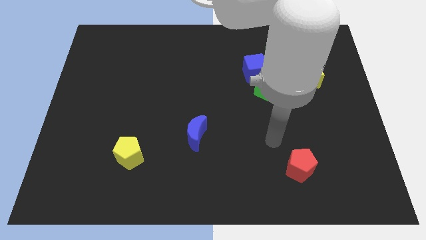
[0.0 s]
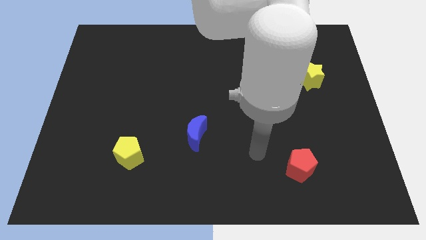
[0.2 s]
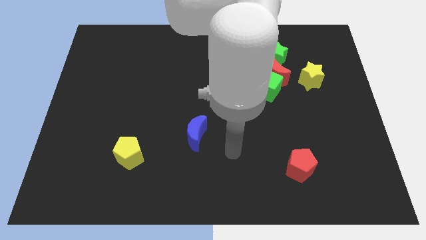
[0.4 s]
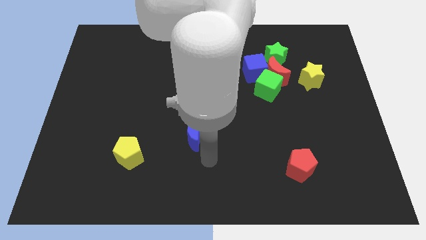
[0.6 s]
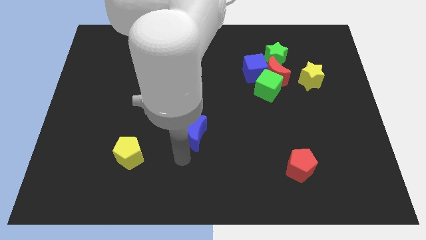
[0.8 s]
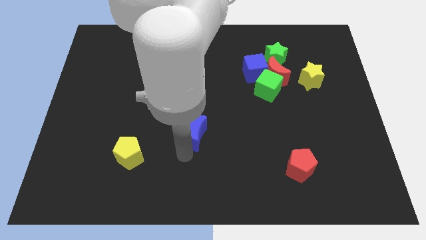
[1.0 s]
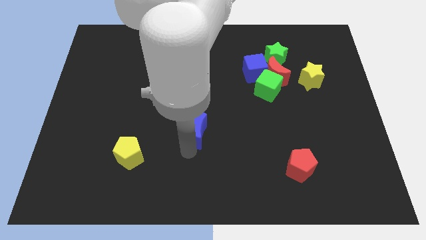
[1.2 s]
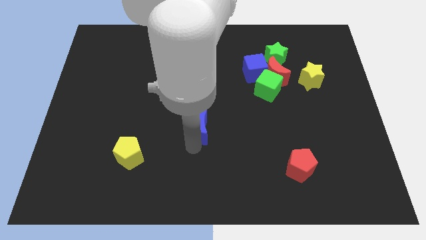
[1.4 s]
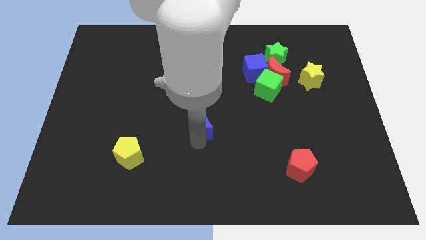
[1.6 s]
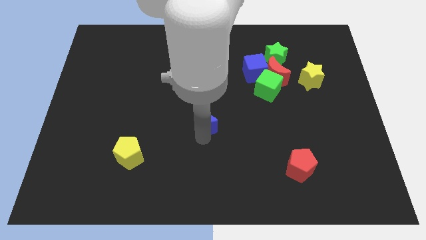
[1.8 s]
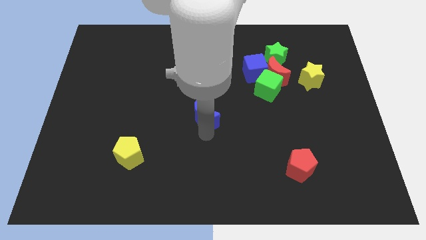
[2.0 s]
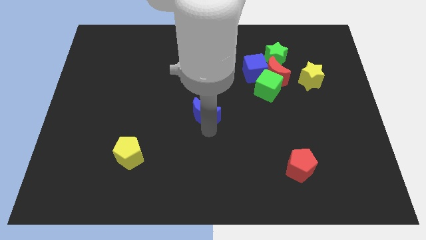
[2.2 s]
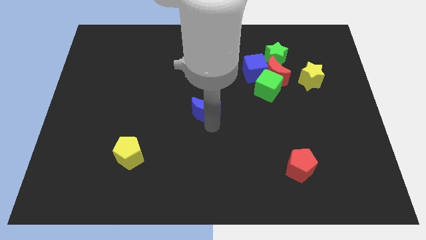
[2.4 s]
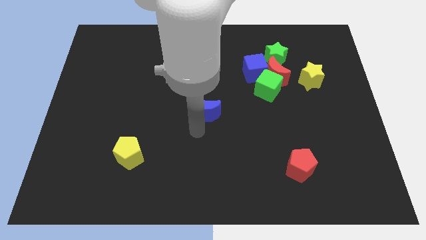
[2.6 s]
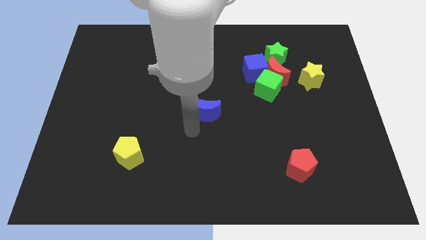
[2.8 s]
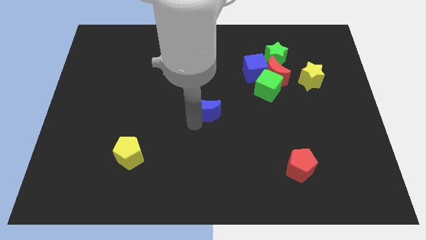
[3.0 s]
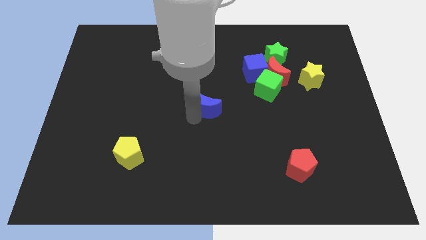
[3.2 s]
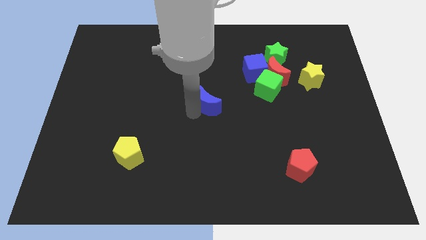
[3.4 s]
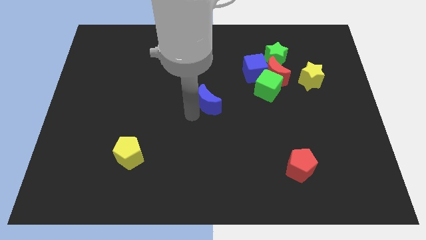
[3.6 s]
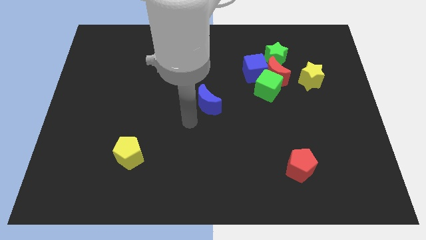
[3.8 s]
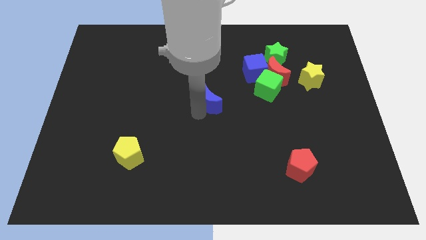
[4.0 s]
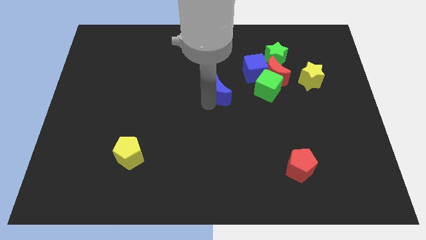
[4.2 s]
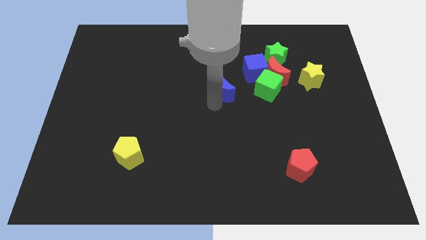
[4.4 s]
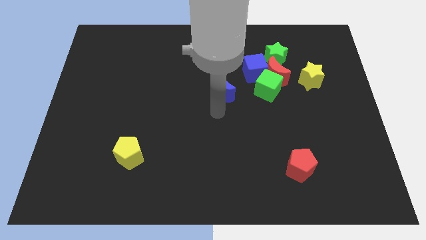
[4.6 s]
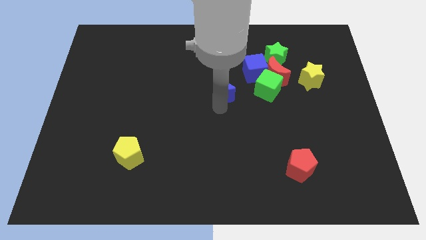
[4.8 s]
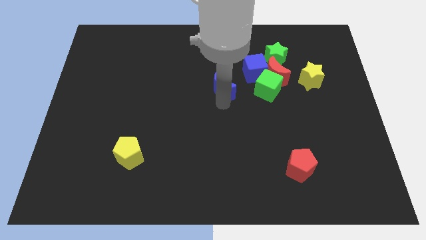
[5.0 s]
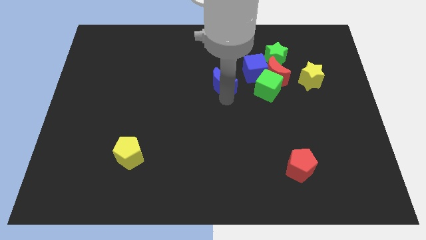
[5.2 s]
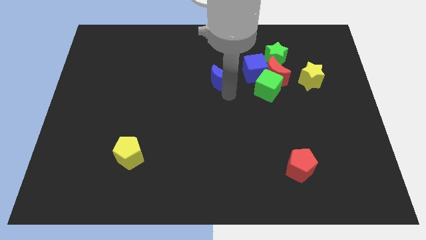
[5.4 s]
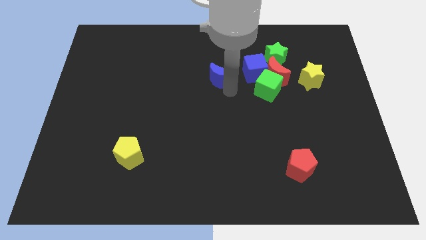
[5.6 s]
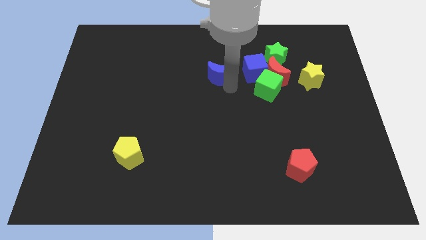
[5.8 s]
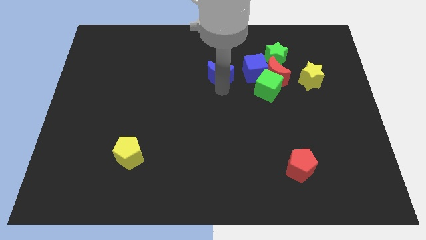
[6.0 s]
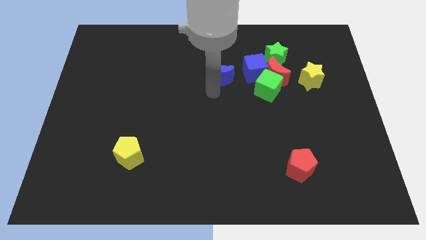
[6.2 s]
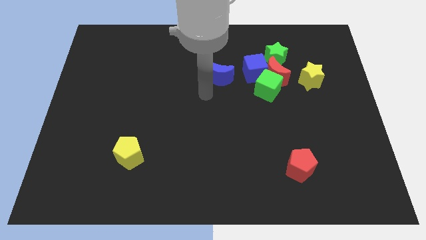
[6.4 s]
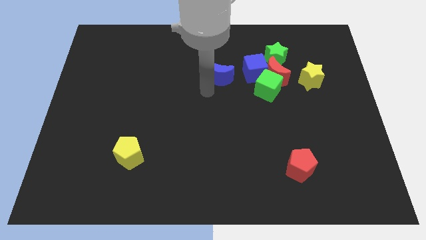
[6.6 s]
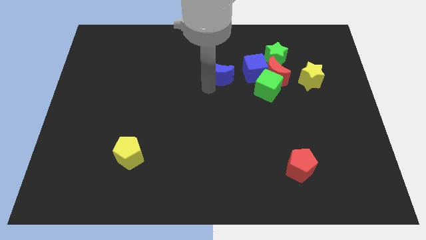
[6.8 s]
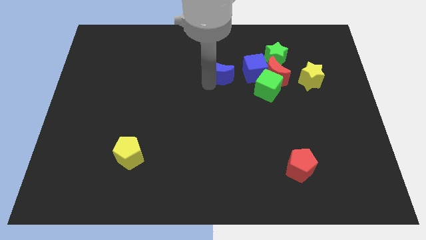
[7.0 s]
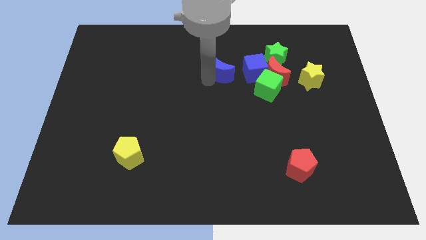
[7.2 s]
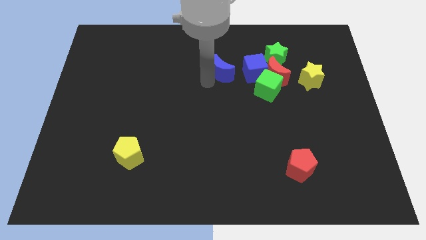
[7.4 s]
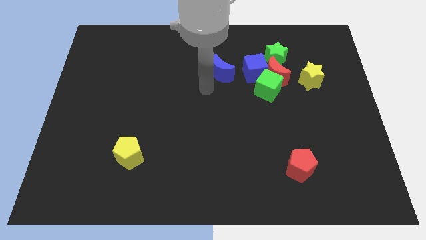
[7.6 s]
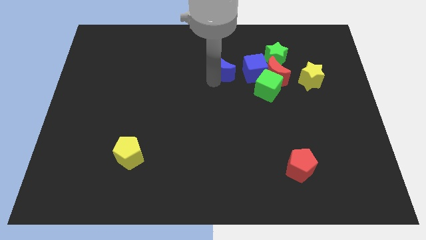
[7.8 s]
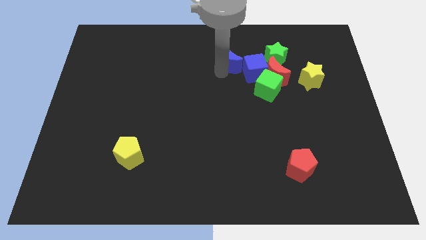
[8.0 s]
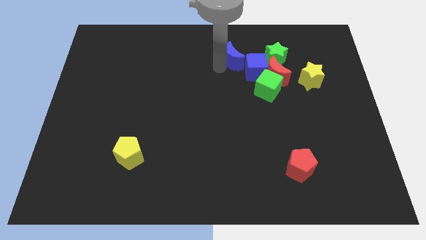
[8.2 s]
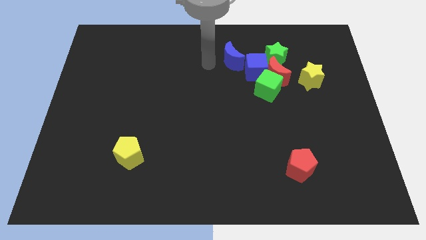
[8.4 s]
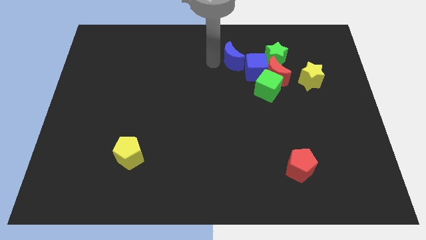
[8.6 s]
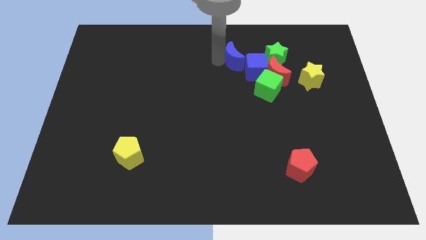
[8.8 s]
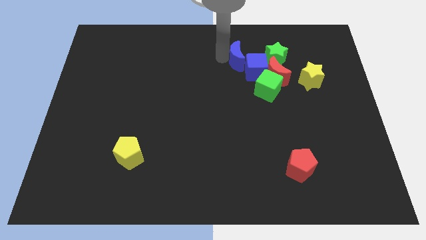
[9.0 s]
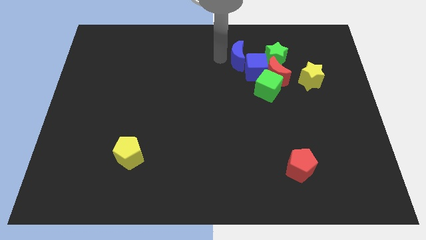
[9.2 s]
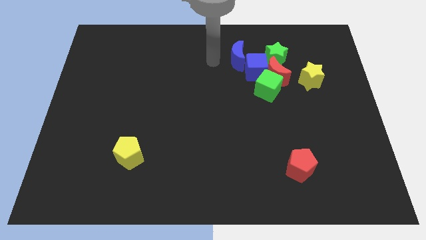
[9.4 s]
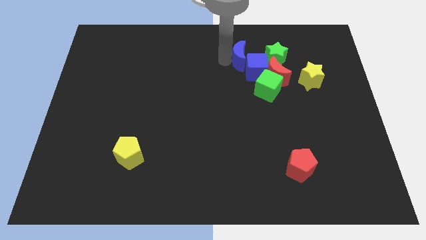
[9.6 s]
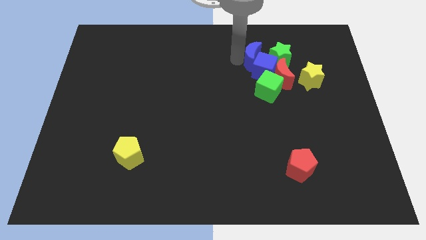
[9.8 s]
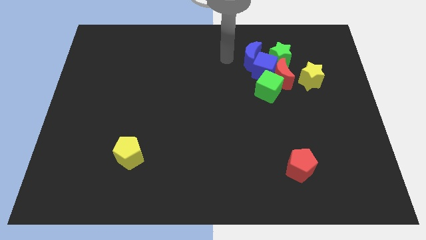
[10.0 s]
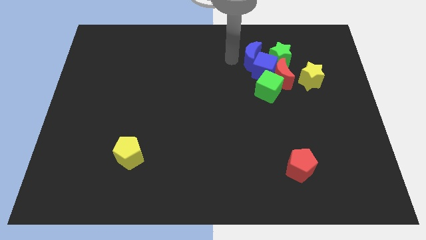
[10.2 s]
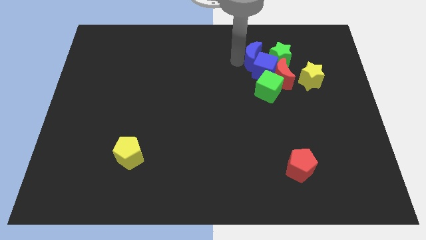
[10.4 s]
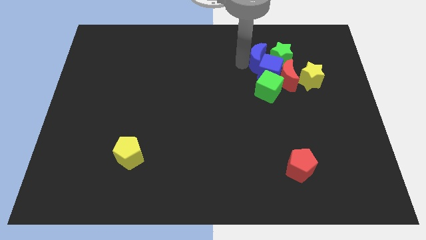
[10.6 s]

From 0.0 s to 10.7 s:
put the blue moon next to the green star

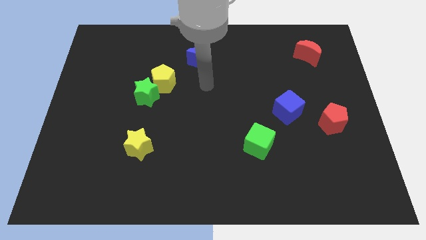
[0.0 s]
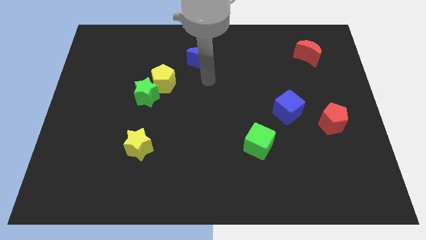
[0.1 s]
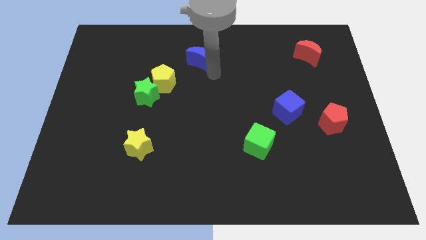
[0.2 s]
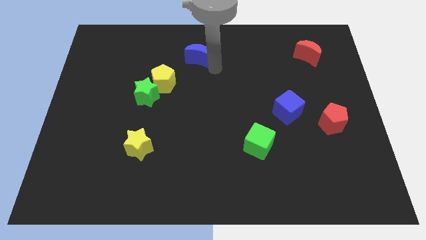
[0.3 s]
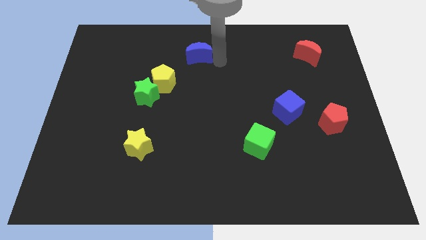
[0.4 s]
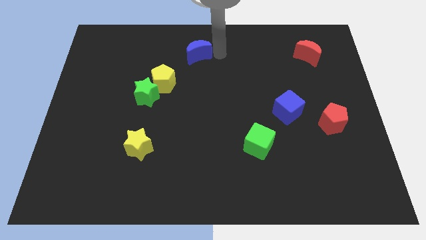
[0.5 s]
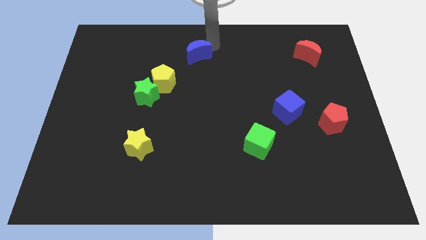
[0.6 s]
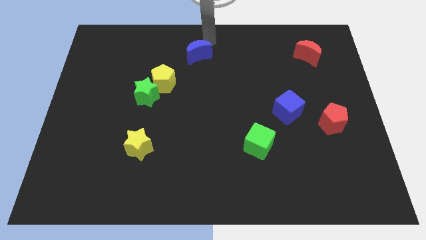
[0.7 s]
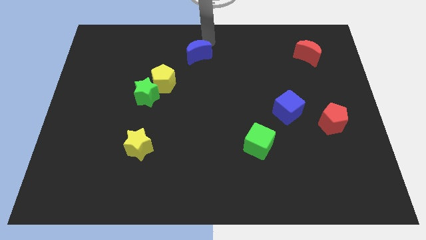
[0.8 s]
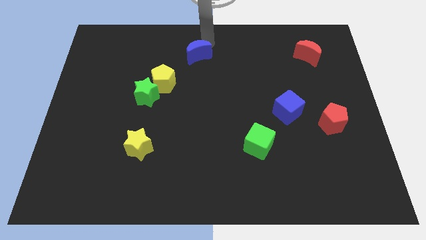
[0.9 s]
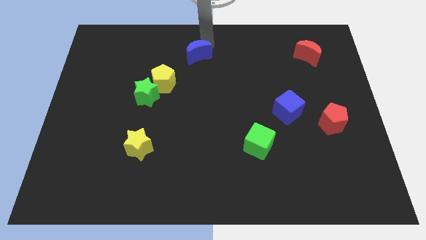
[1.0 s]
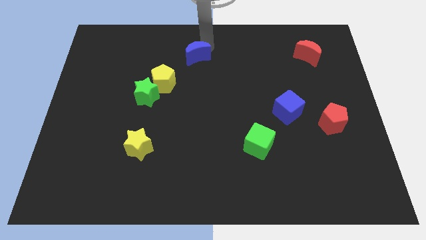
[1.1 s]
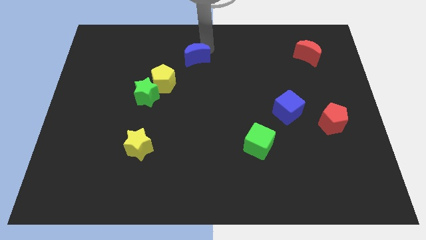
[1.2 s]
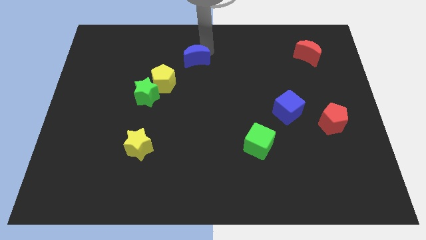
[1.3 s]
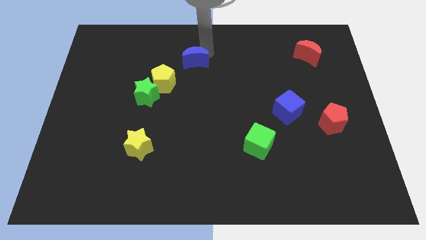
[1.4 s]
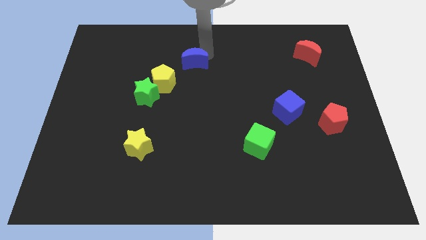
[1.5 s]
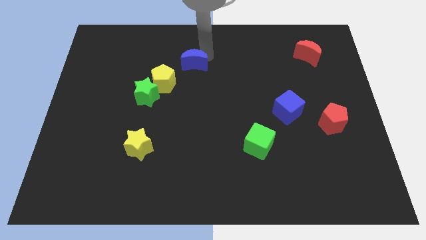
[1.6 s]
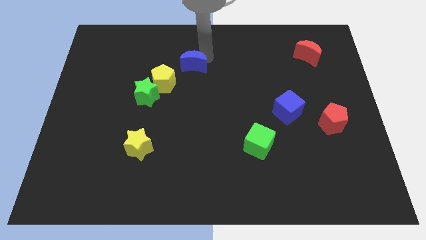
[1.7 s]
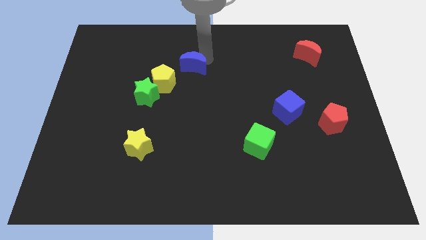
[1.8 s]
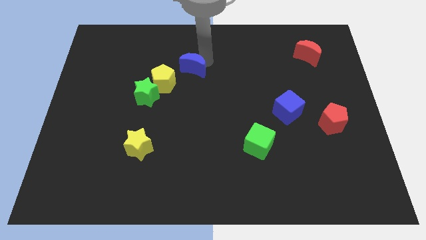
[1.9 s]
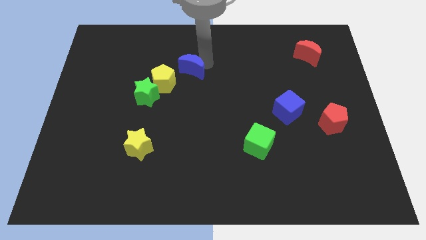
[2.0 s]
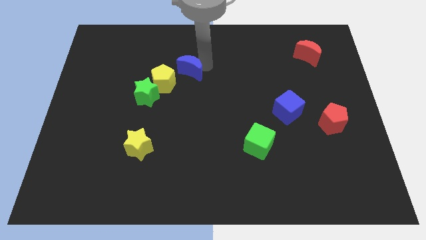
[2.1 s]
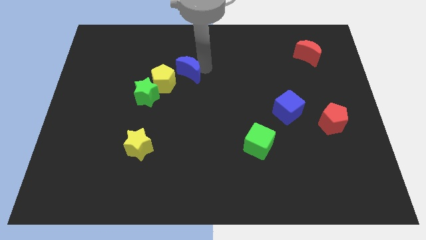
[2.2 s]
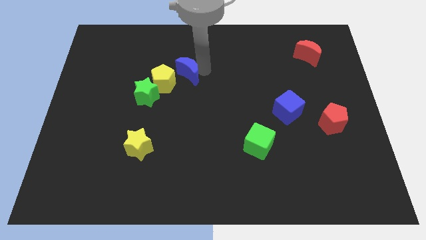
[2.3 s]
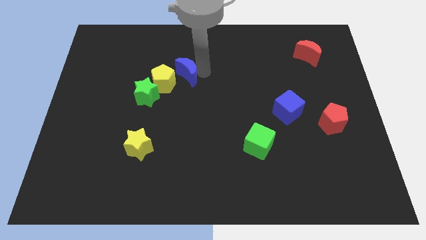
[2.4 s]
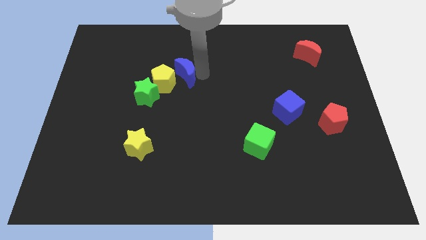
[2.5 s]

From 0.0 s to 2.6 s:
put the blue moon towards the yellow pentagon
